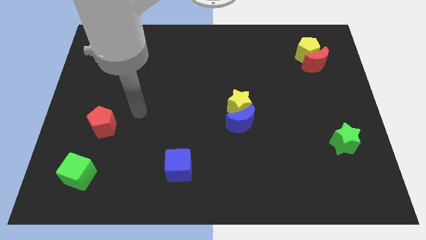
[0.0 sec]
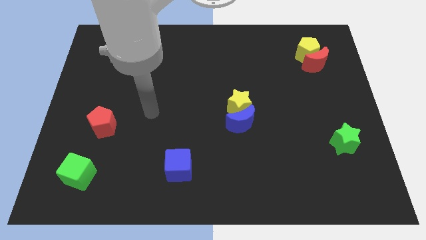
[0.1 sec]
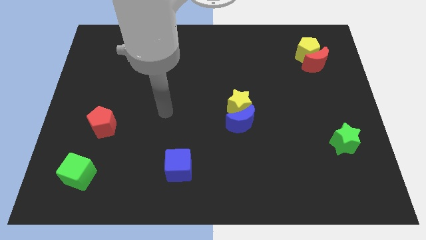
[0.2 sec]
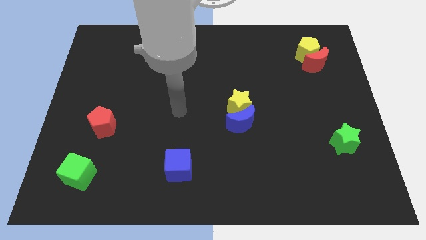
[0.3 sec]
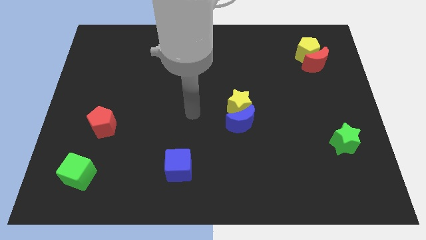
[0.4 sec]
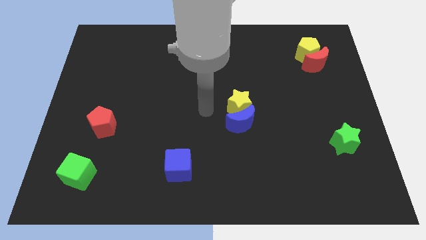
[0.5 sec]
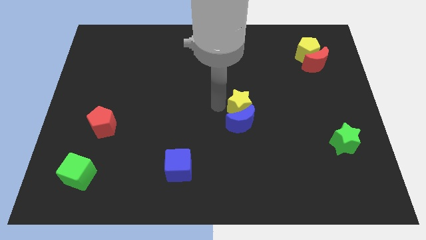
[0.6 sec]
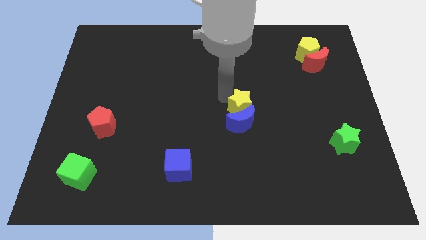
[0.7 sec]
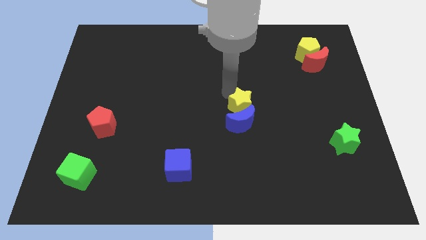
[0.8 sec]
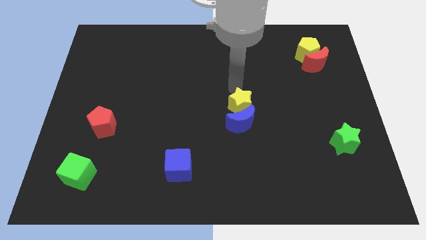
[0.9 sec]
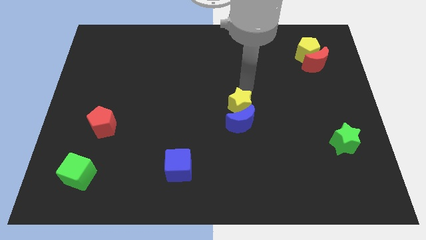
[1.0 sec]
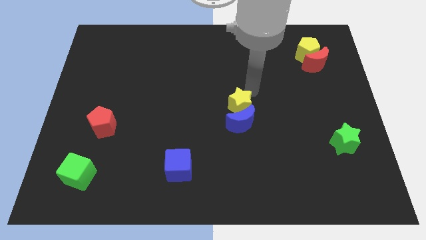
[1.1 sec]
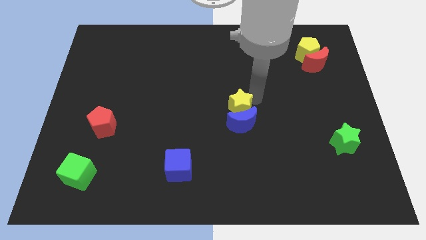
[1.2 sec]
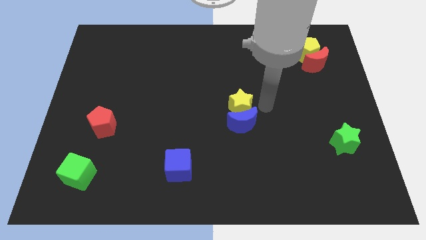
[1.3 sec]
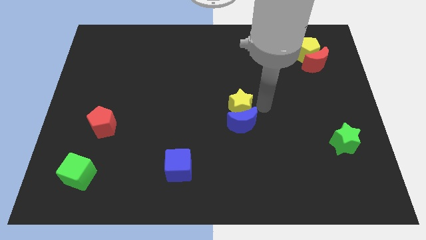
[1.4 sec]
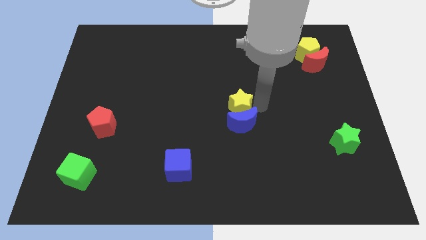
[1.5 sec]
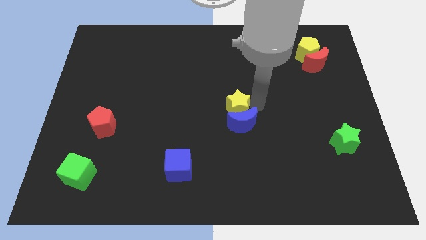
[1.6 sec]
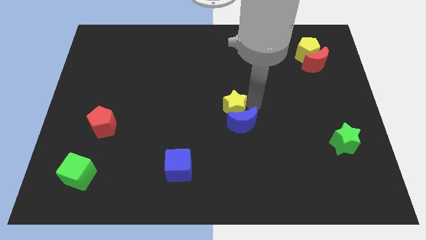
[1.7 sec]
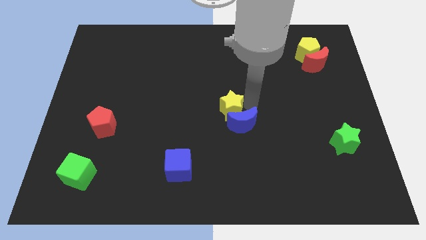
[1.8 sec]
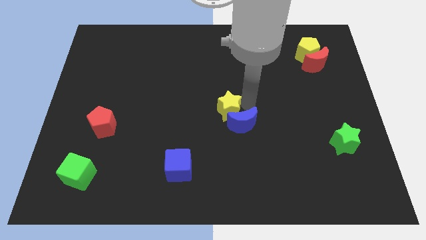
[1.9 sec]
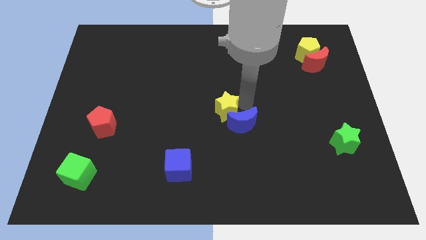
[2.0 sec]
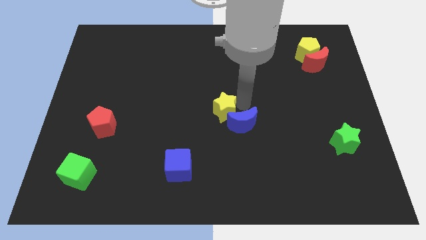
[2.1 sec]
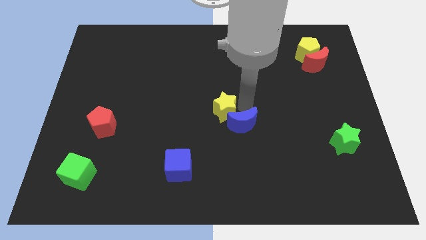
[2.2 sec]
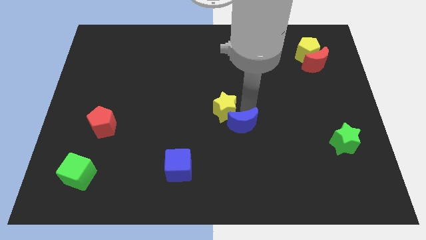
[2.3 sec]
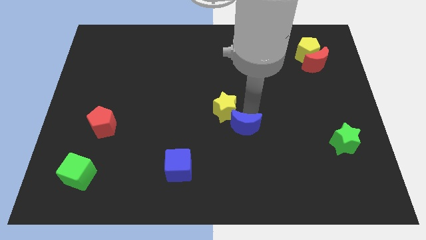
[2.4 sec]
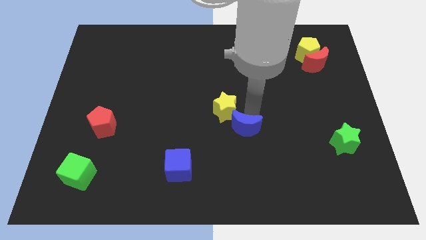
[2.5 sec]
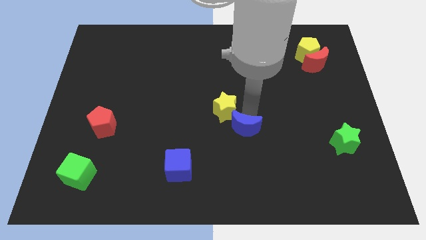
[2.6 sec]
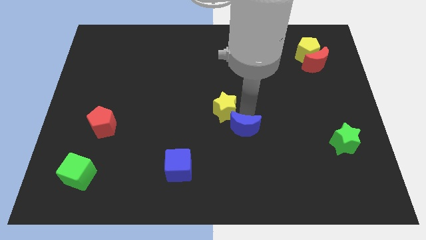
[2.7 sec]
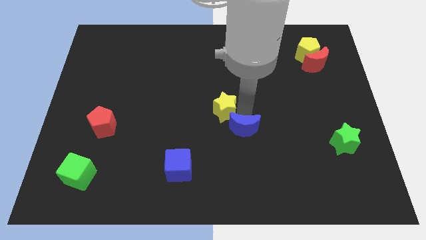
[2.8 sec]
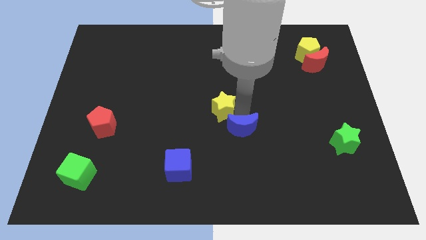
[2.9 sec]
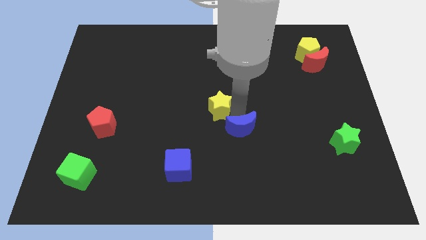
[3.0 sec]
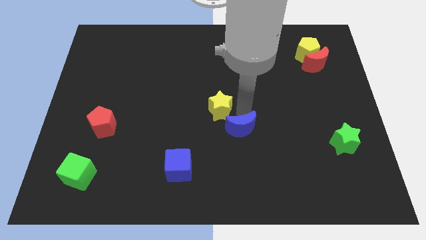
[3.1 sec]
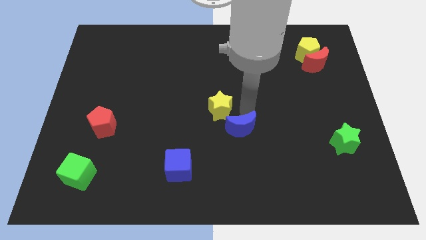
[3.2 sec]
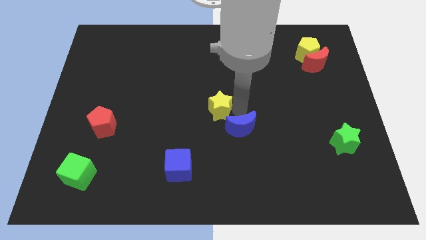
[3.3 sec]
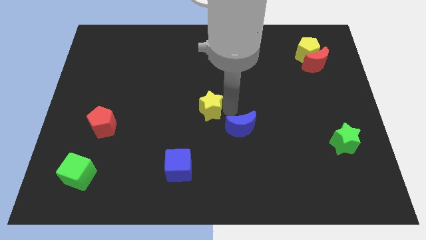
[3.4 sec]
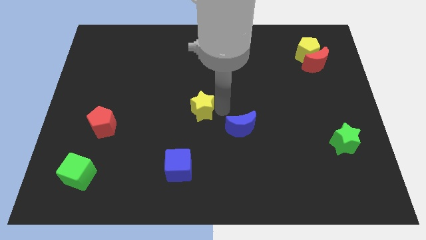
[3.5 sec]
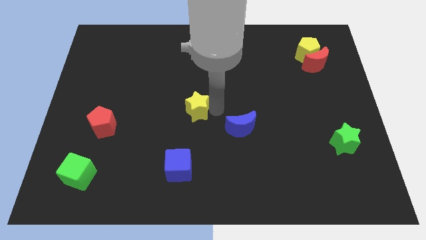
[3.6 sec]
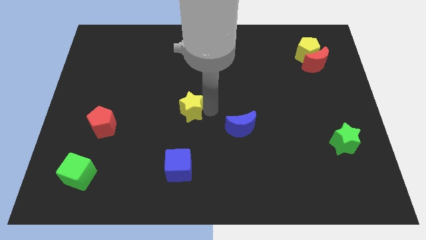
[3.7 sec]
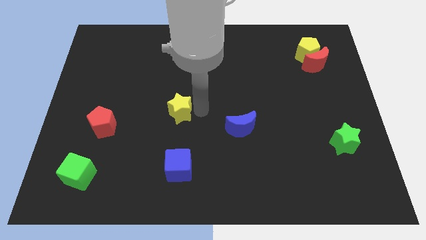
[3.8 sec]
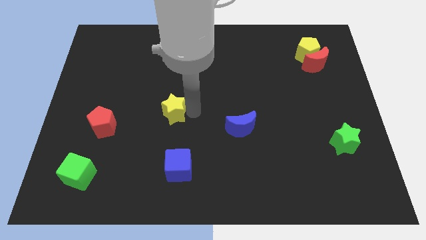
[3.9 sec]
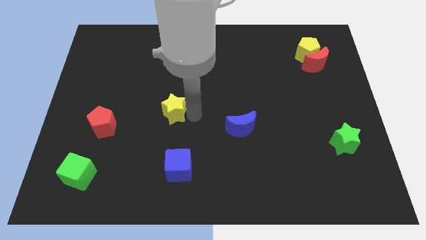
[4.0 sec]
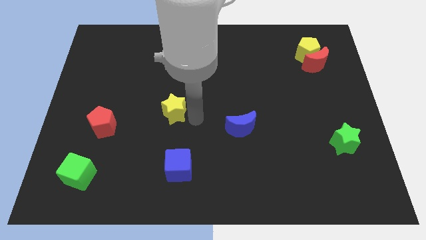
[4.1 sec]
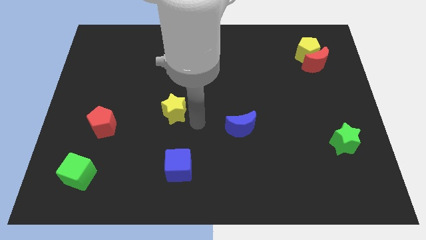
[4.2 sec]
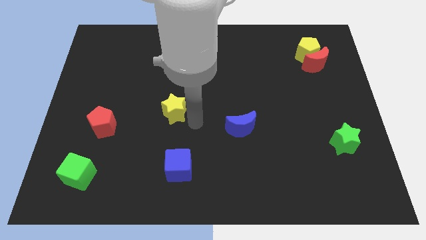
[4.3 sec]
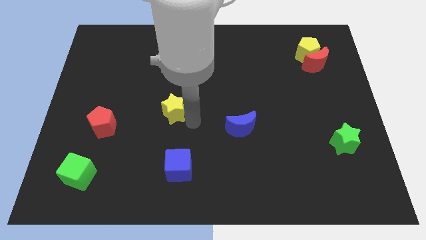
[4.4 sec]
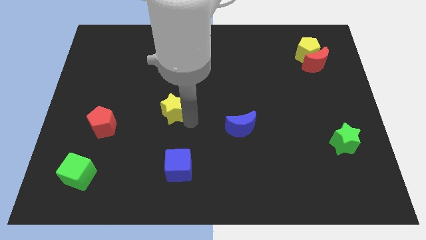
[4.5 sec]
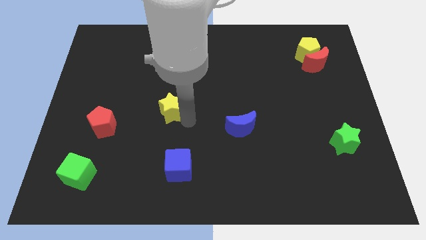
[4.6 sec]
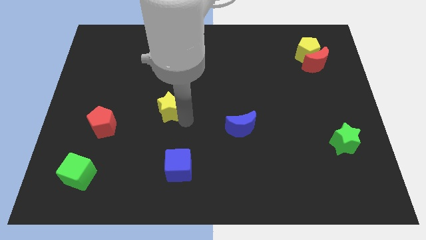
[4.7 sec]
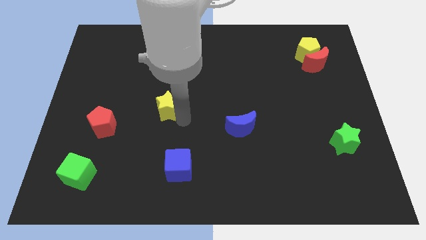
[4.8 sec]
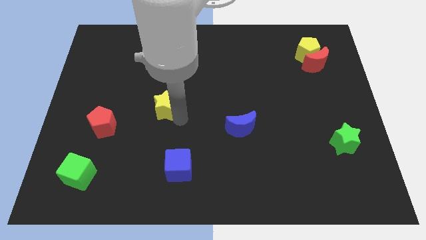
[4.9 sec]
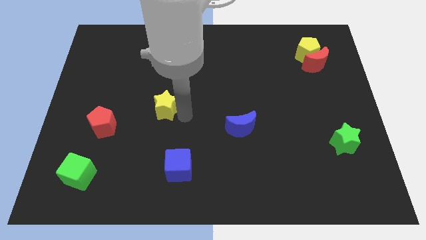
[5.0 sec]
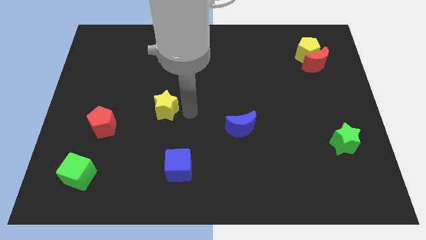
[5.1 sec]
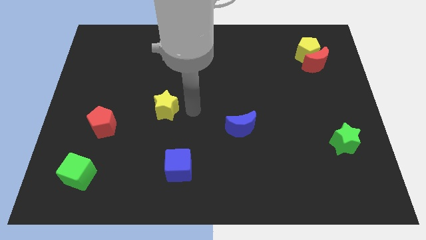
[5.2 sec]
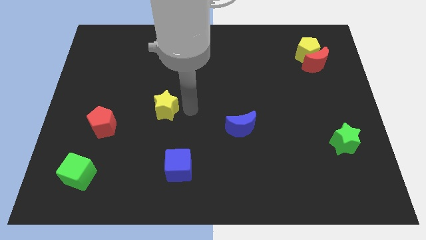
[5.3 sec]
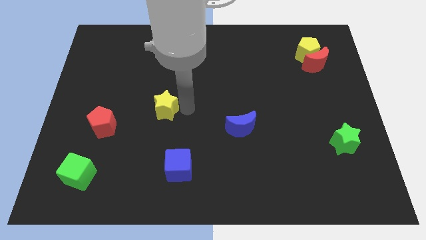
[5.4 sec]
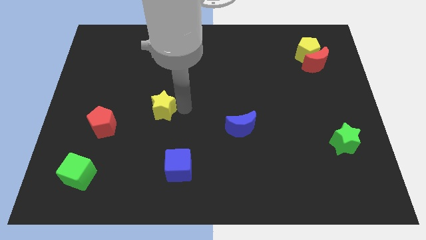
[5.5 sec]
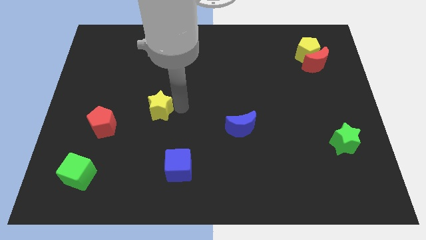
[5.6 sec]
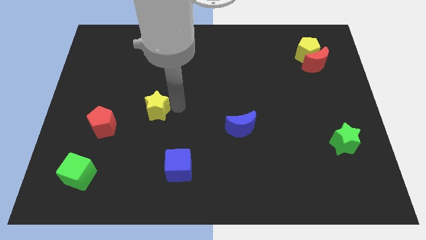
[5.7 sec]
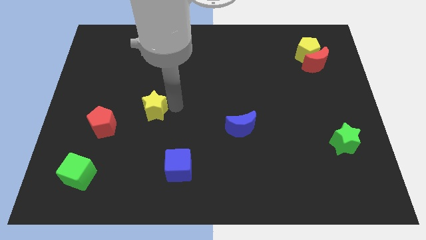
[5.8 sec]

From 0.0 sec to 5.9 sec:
slide the yellow star to the left

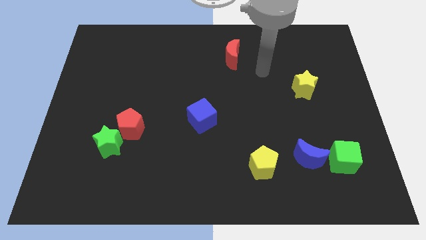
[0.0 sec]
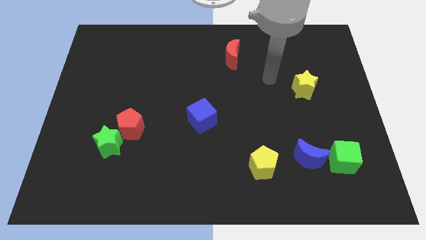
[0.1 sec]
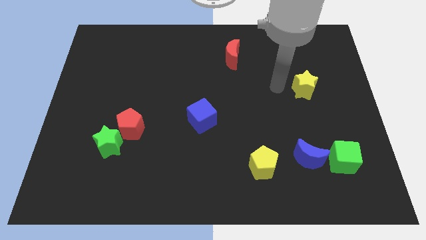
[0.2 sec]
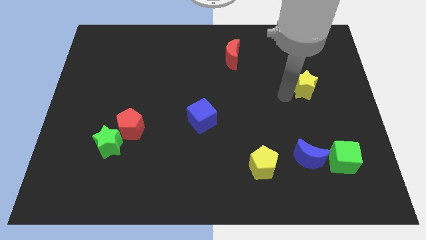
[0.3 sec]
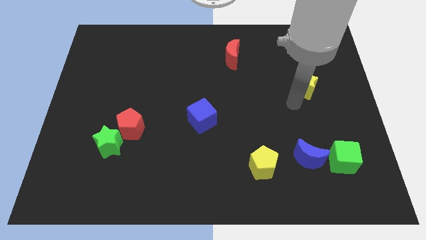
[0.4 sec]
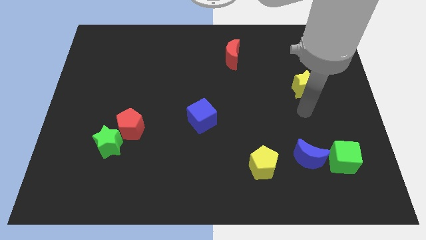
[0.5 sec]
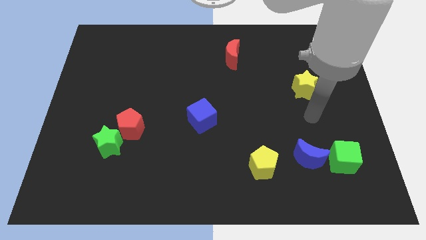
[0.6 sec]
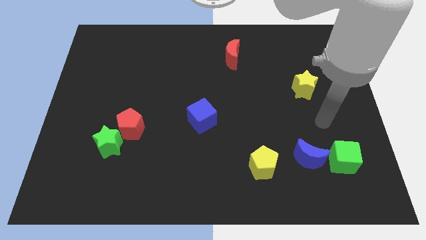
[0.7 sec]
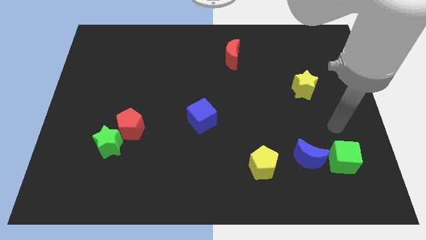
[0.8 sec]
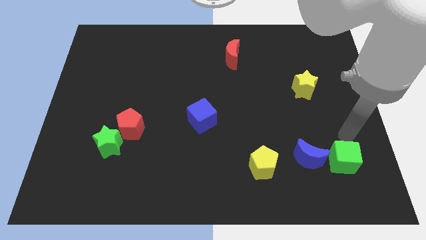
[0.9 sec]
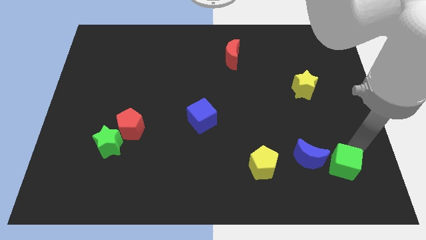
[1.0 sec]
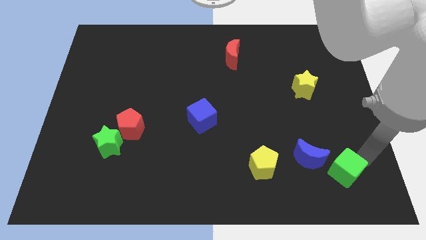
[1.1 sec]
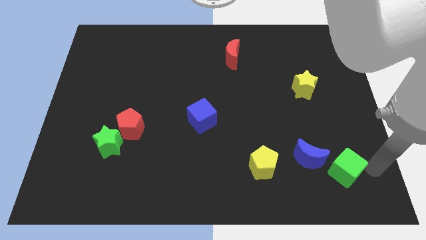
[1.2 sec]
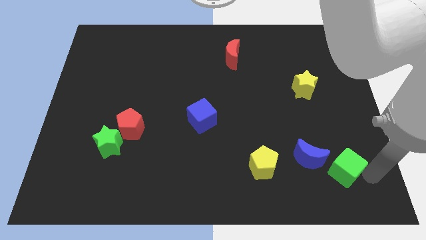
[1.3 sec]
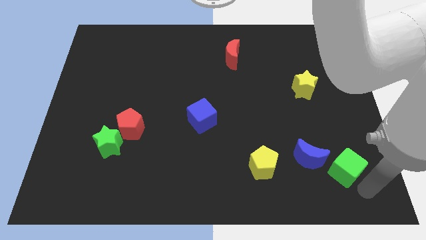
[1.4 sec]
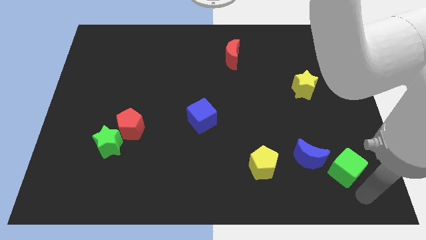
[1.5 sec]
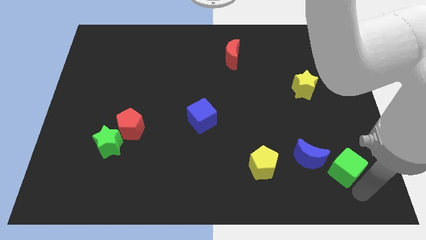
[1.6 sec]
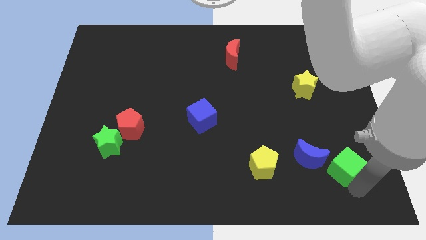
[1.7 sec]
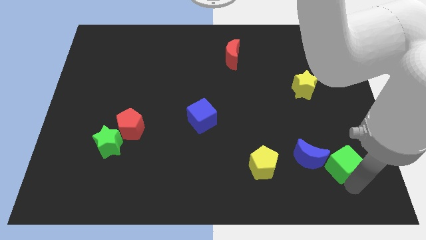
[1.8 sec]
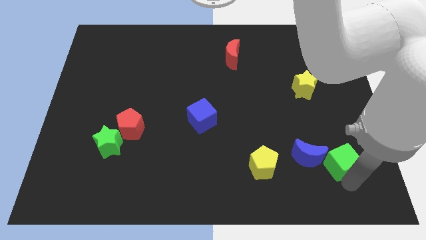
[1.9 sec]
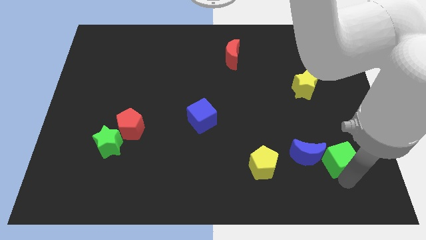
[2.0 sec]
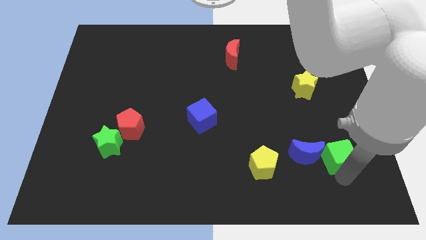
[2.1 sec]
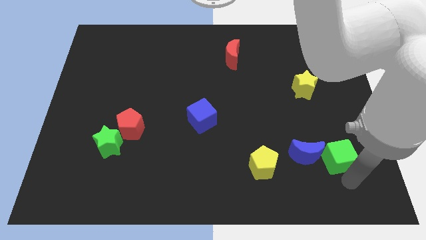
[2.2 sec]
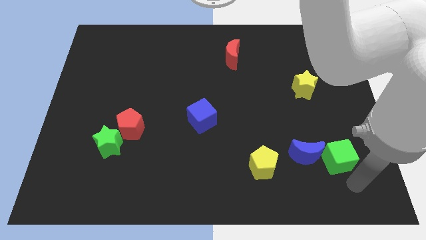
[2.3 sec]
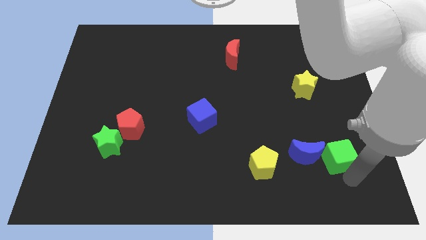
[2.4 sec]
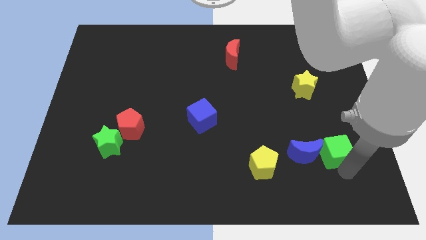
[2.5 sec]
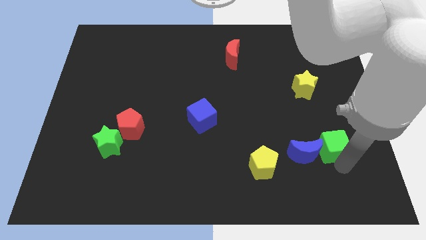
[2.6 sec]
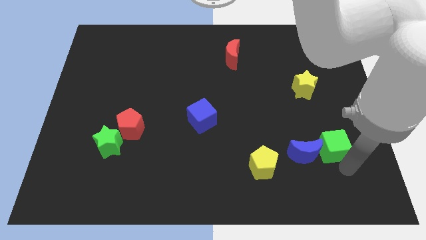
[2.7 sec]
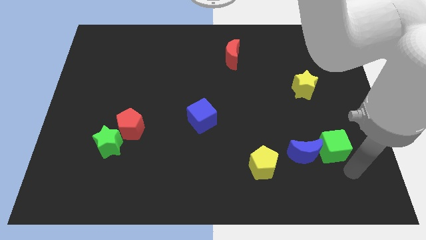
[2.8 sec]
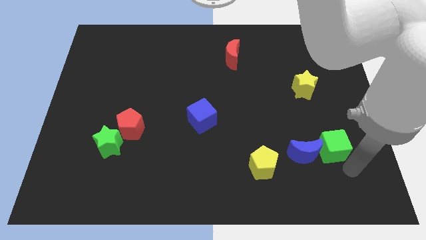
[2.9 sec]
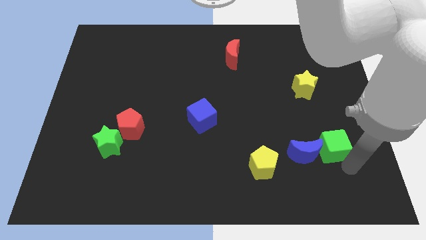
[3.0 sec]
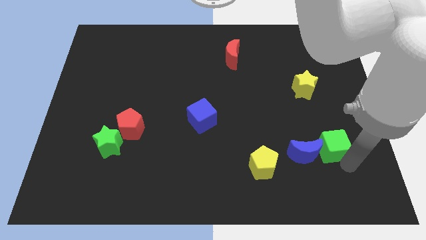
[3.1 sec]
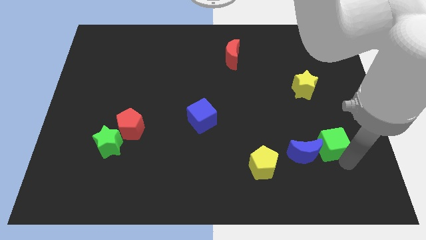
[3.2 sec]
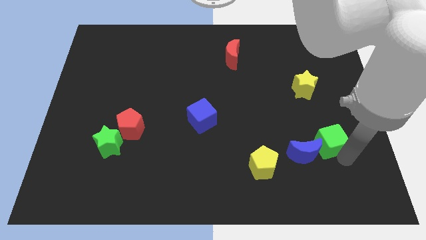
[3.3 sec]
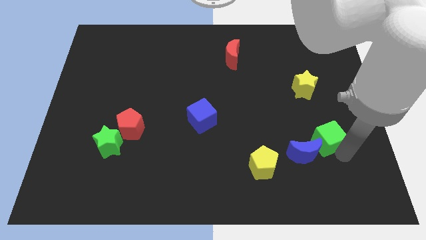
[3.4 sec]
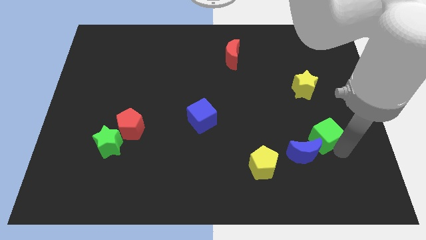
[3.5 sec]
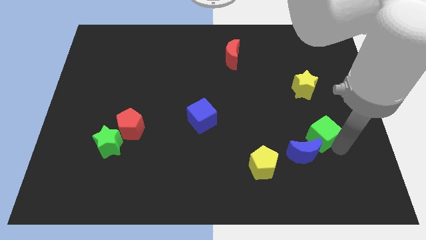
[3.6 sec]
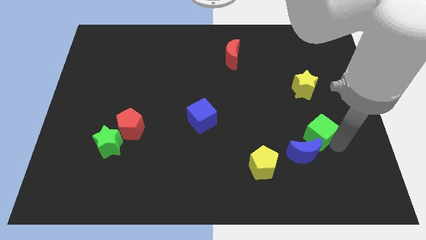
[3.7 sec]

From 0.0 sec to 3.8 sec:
slightly push the green cube upwards and then left
